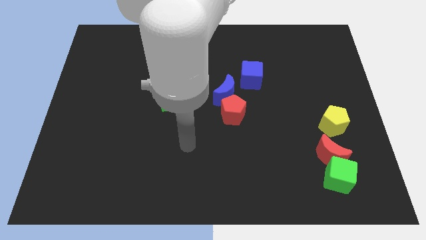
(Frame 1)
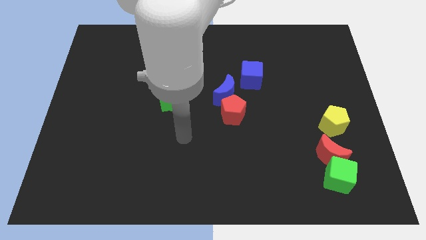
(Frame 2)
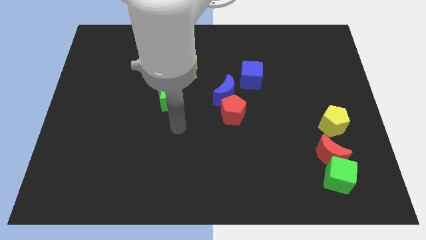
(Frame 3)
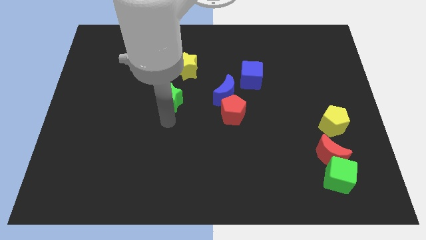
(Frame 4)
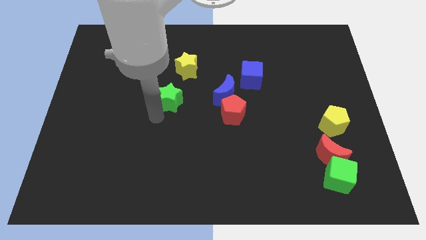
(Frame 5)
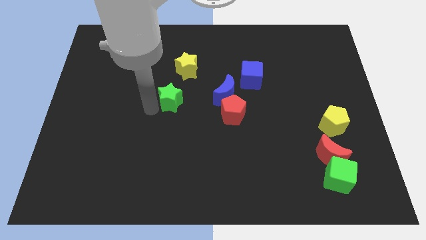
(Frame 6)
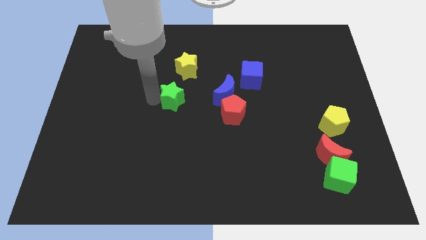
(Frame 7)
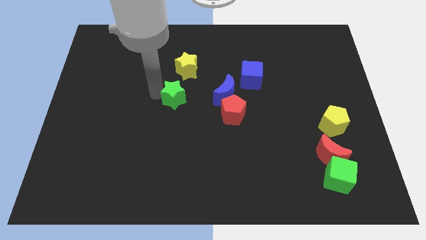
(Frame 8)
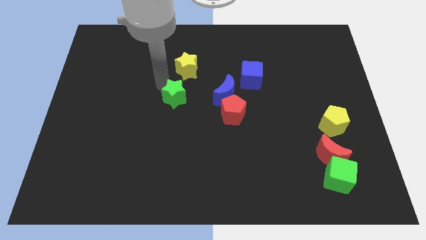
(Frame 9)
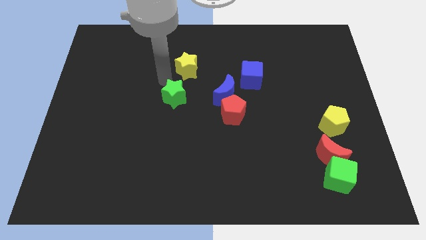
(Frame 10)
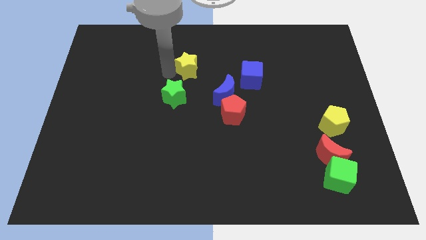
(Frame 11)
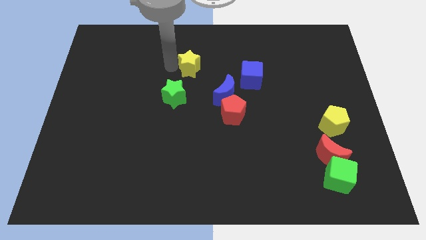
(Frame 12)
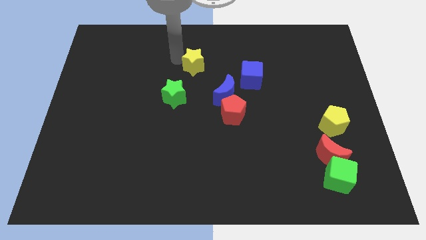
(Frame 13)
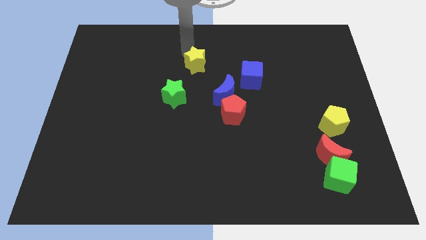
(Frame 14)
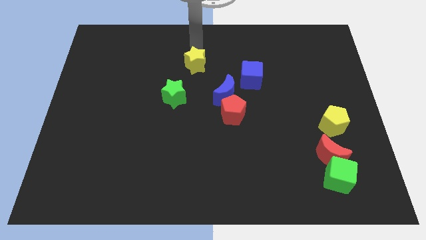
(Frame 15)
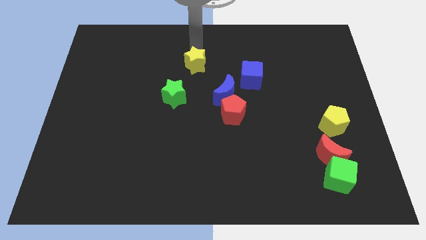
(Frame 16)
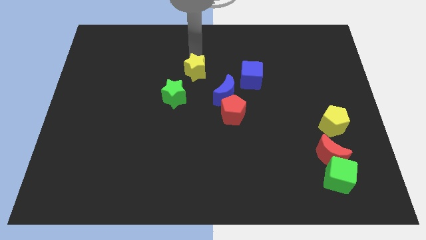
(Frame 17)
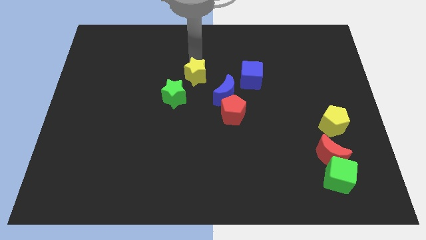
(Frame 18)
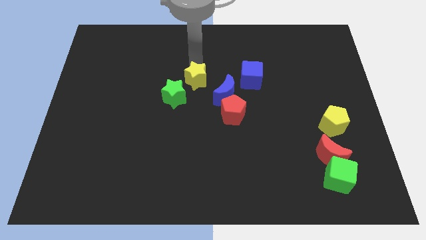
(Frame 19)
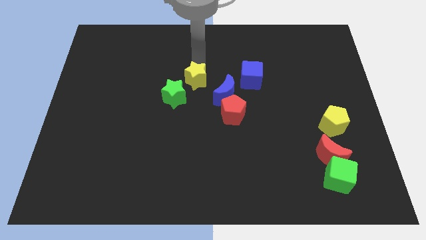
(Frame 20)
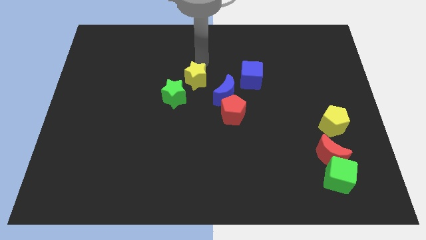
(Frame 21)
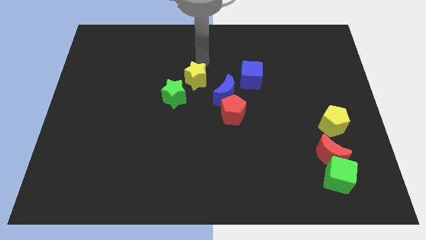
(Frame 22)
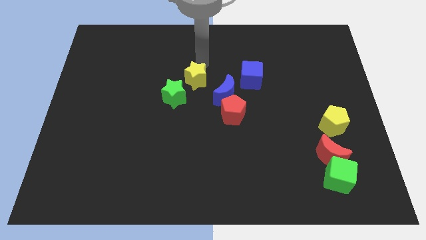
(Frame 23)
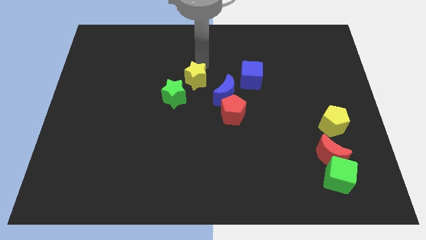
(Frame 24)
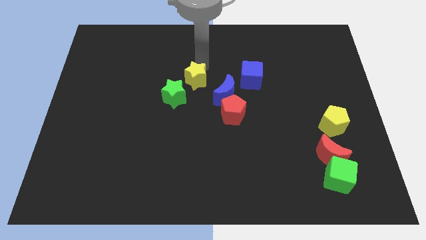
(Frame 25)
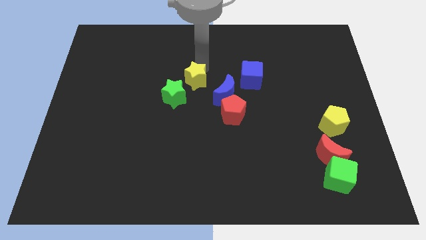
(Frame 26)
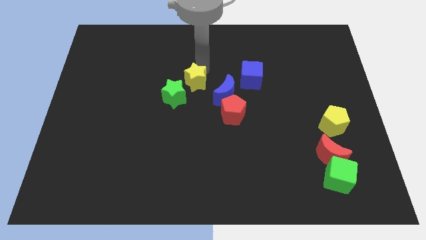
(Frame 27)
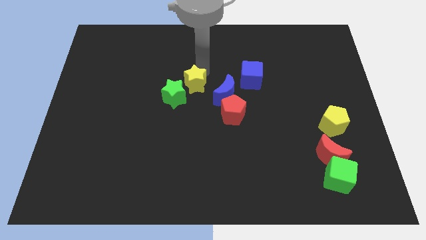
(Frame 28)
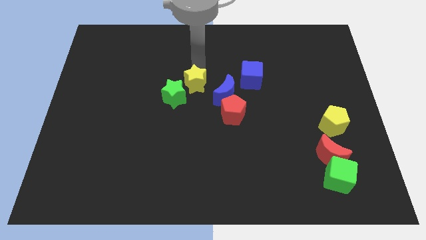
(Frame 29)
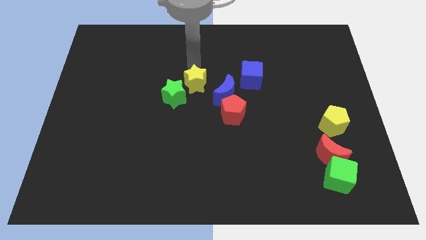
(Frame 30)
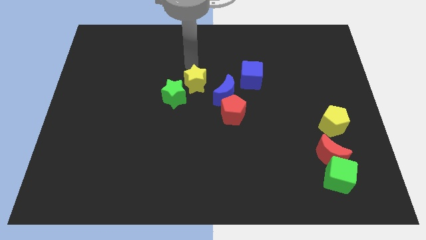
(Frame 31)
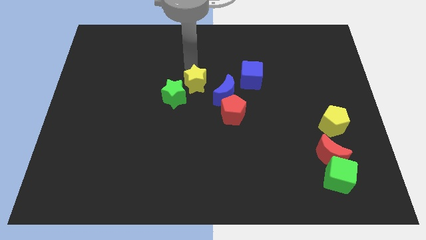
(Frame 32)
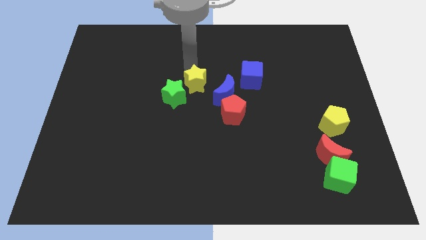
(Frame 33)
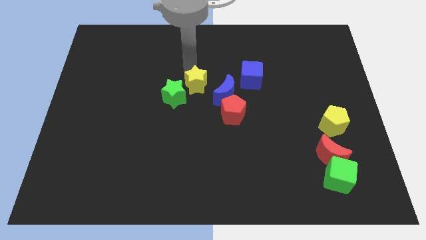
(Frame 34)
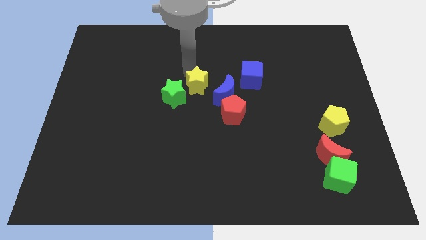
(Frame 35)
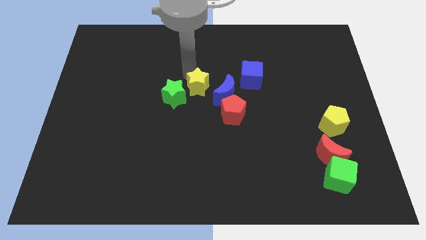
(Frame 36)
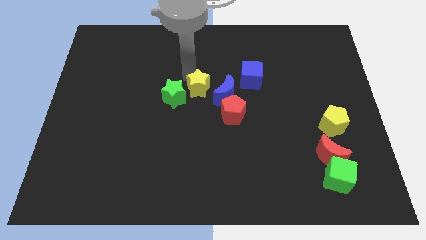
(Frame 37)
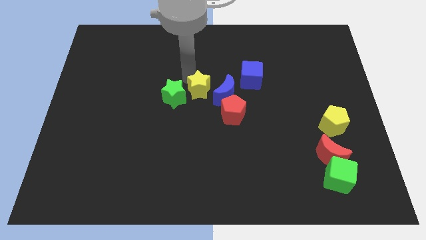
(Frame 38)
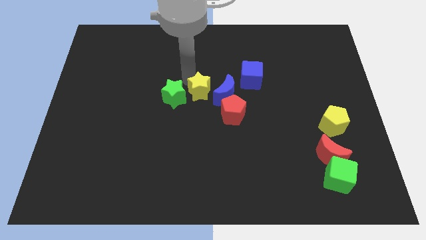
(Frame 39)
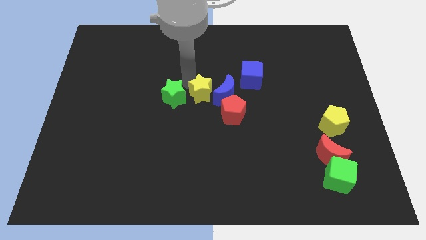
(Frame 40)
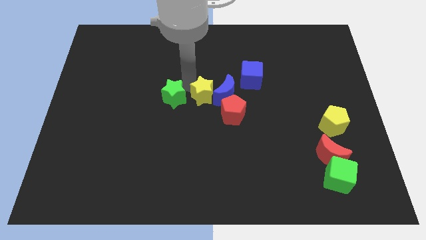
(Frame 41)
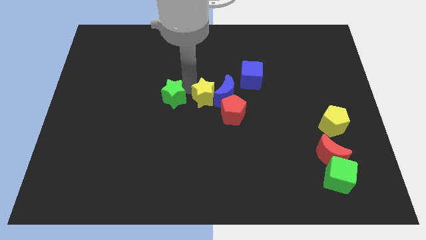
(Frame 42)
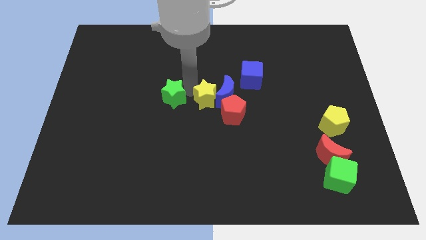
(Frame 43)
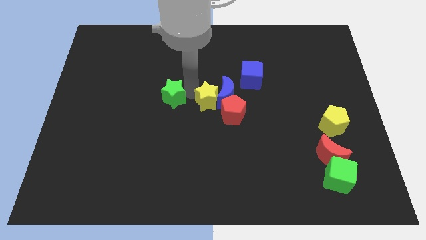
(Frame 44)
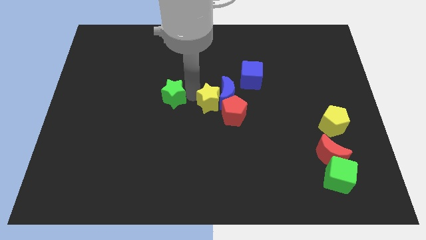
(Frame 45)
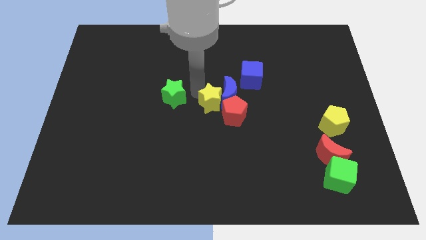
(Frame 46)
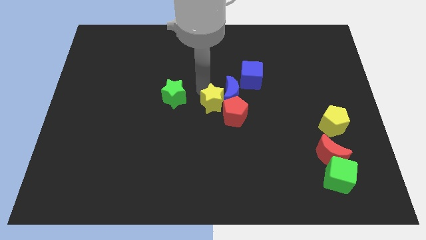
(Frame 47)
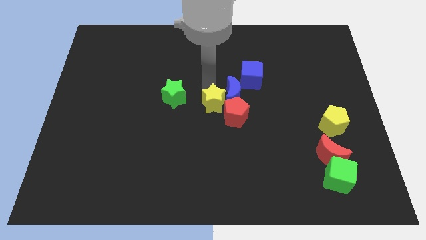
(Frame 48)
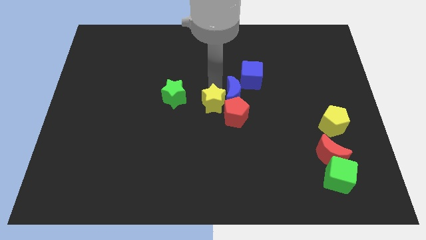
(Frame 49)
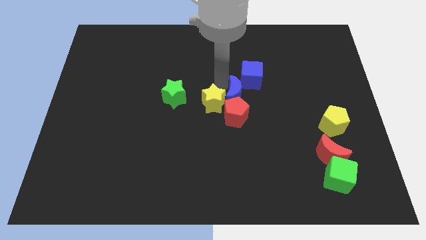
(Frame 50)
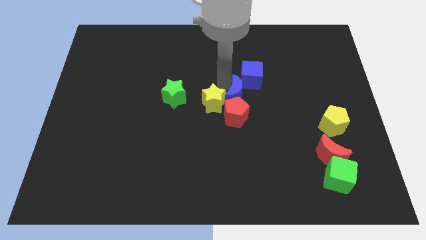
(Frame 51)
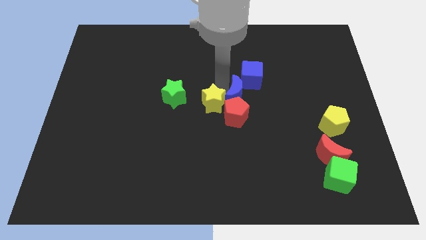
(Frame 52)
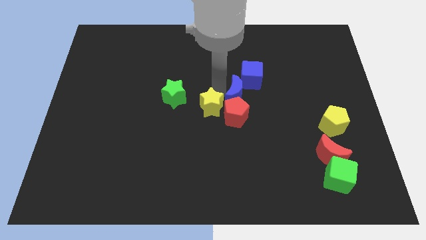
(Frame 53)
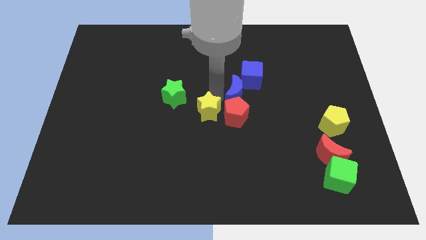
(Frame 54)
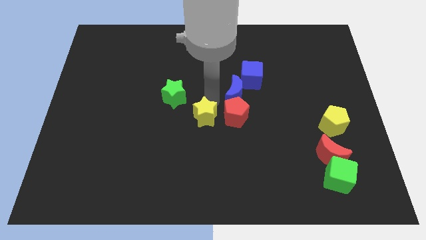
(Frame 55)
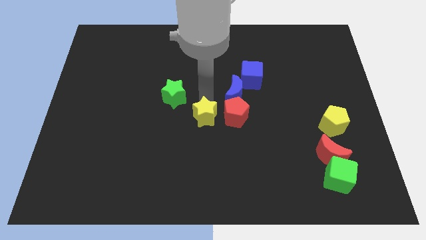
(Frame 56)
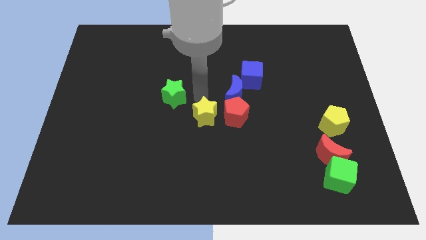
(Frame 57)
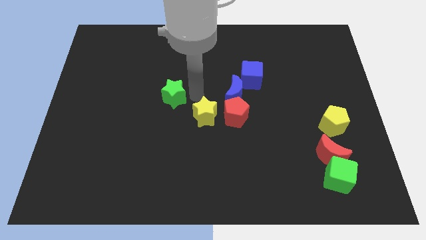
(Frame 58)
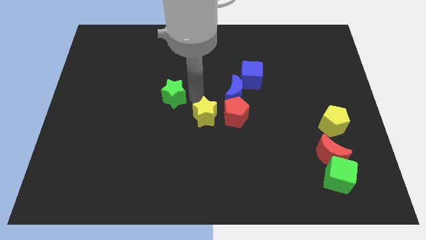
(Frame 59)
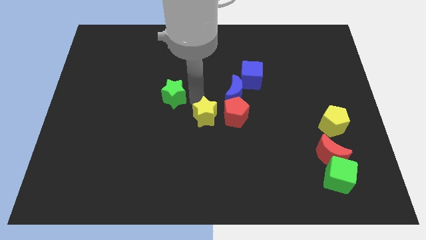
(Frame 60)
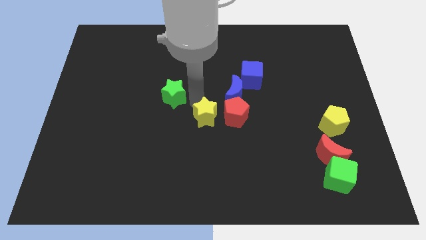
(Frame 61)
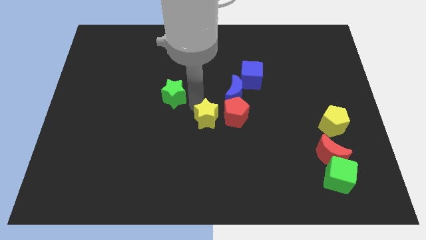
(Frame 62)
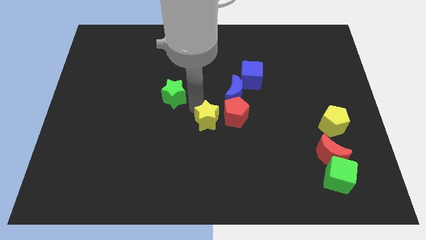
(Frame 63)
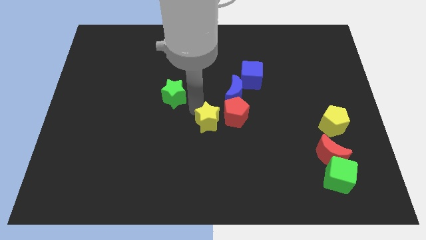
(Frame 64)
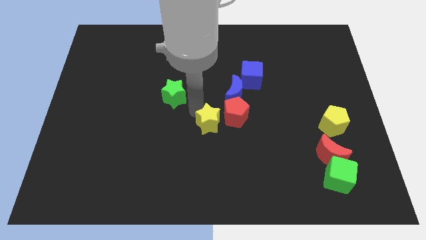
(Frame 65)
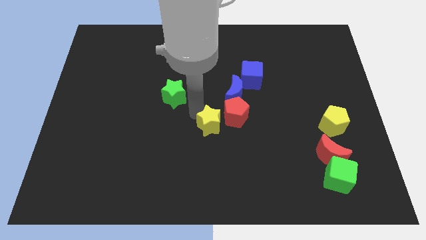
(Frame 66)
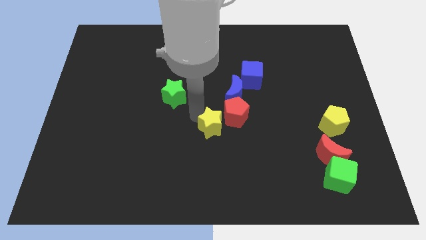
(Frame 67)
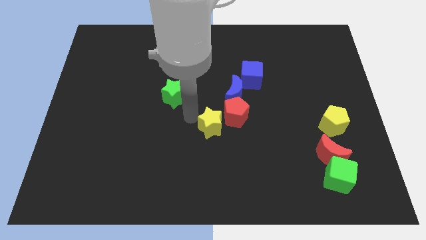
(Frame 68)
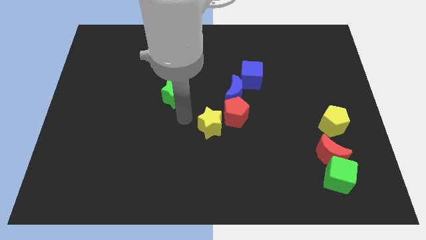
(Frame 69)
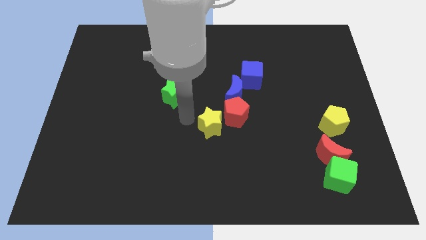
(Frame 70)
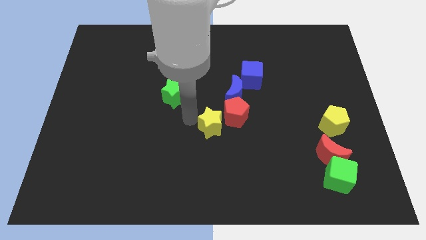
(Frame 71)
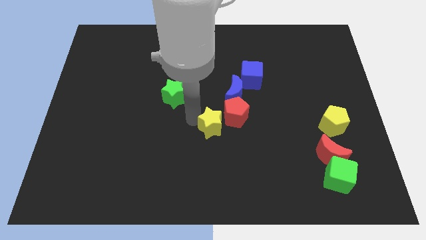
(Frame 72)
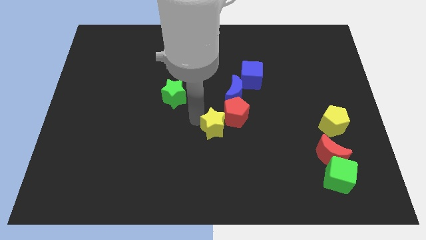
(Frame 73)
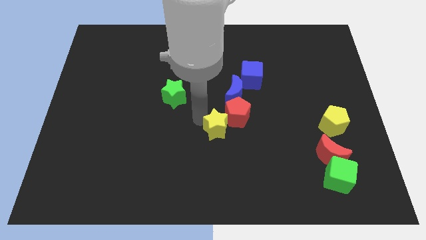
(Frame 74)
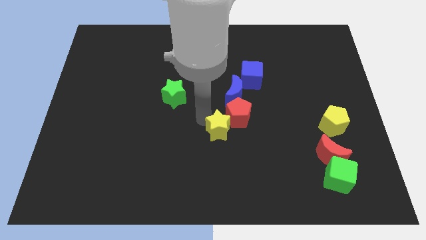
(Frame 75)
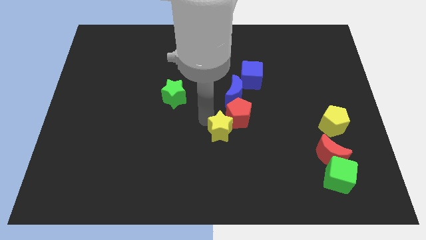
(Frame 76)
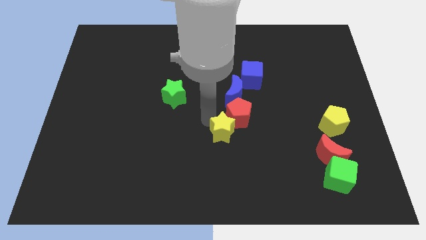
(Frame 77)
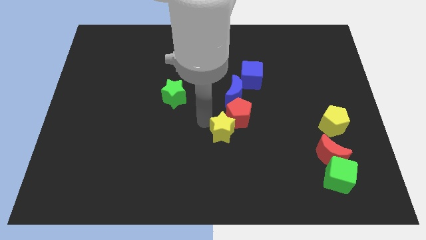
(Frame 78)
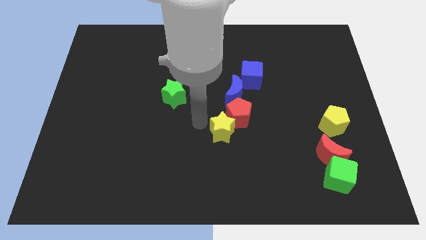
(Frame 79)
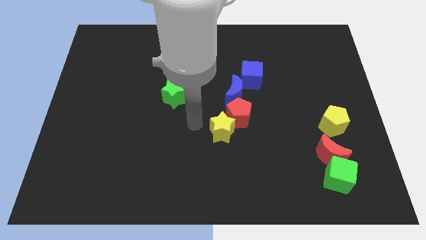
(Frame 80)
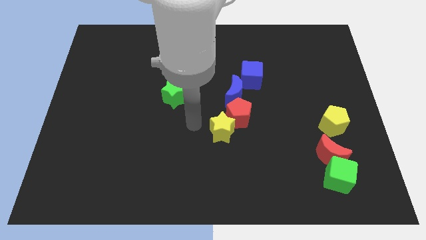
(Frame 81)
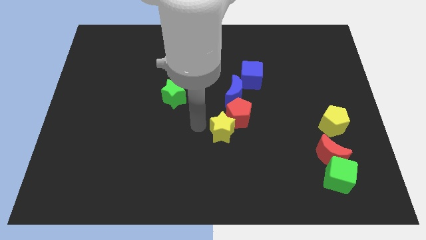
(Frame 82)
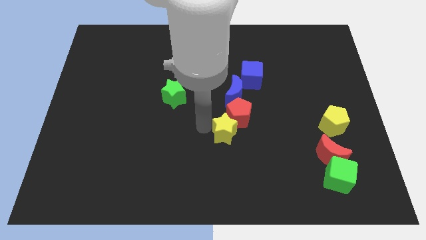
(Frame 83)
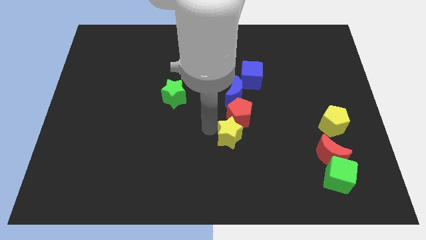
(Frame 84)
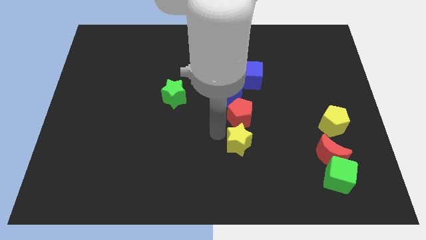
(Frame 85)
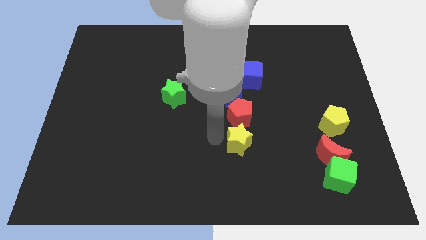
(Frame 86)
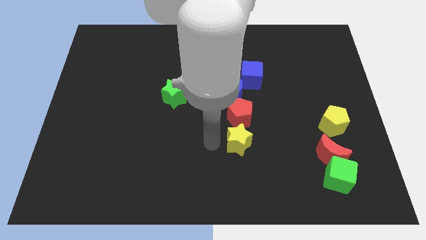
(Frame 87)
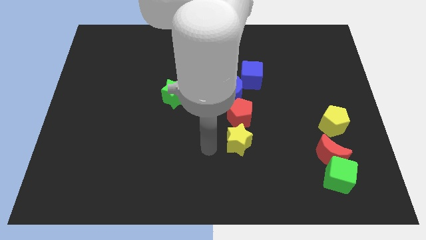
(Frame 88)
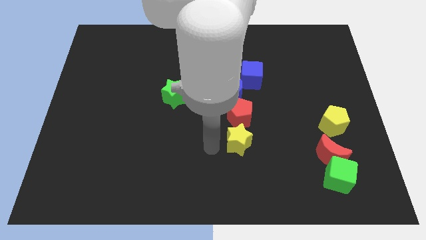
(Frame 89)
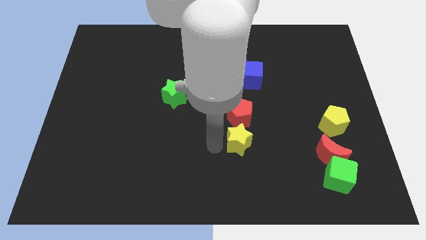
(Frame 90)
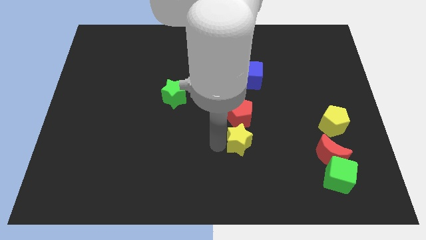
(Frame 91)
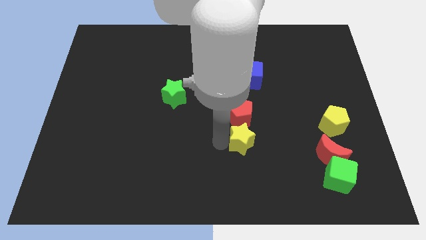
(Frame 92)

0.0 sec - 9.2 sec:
slide the yellow star to the bottom right side of the red pentagon
